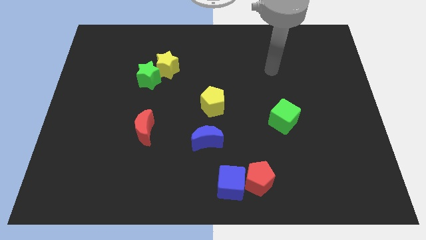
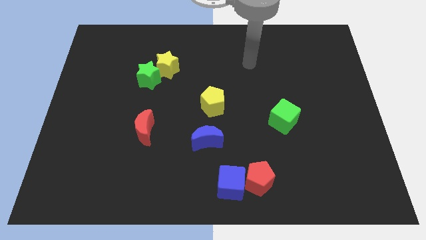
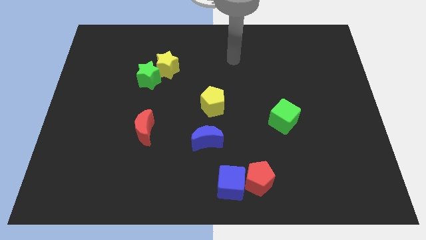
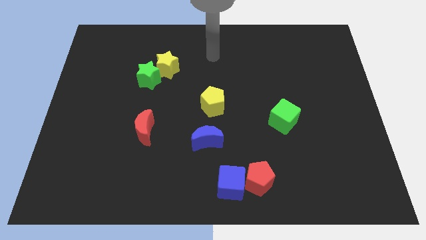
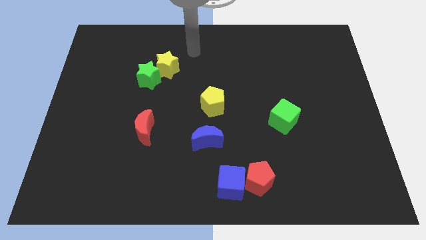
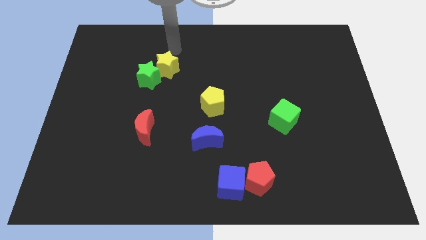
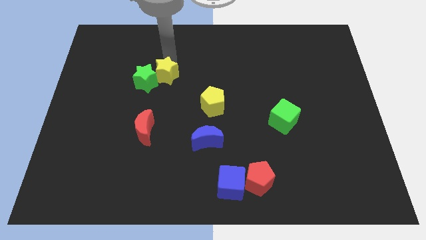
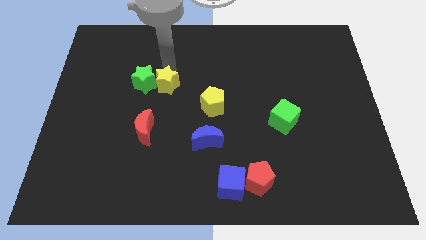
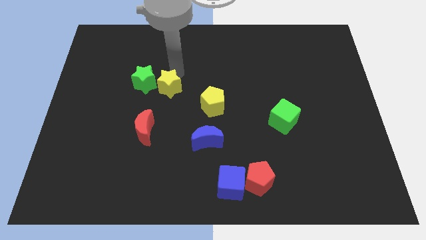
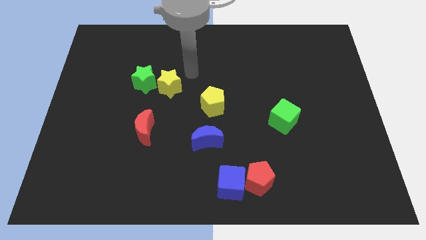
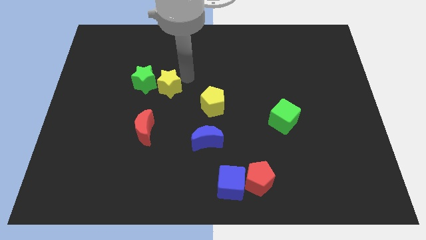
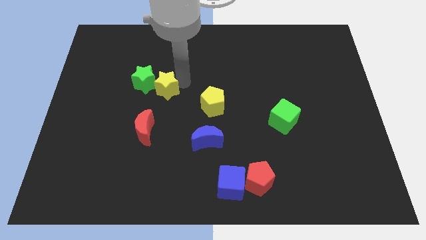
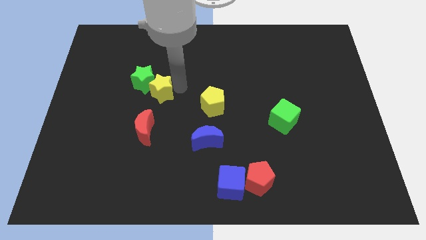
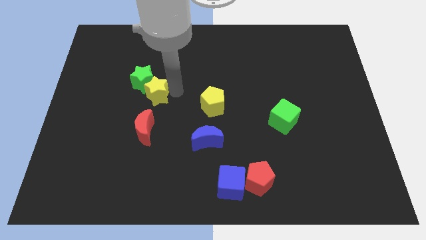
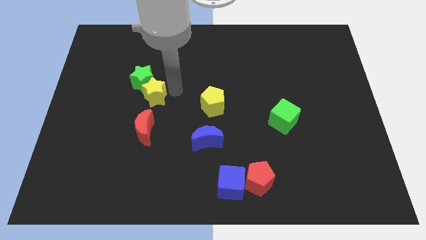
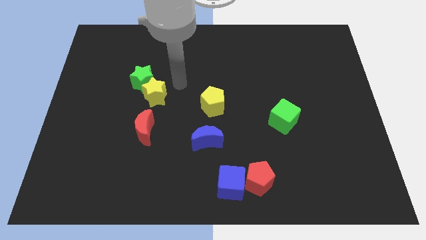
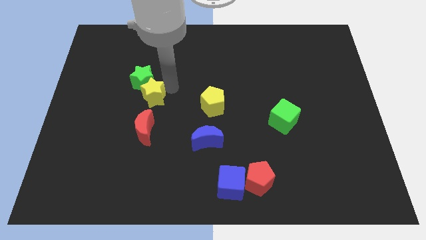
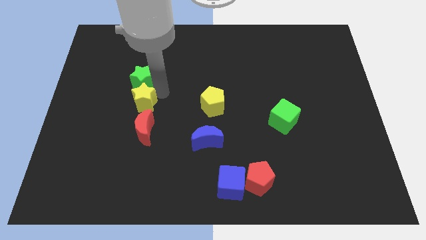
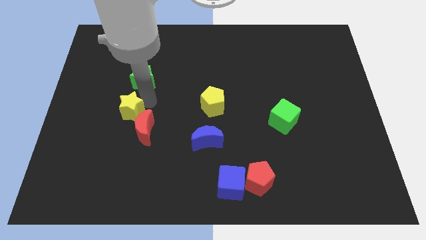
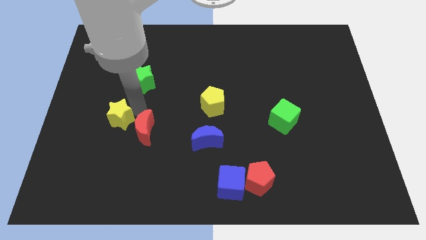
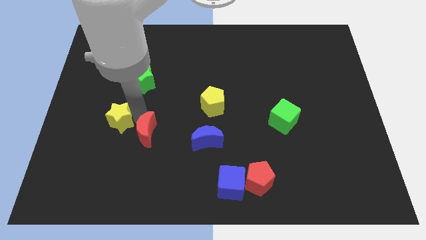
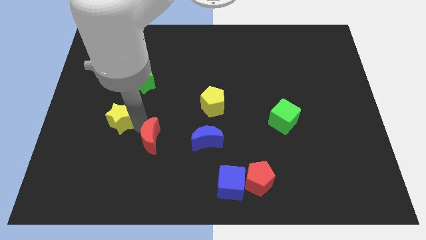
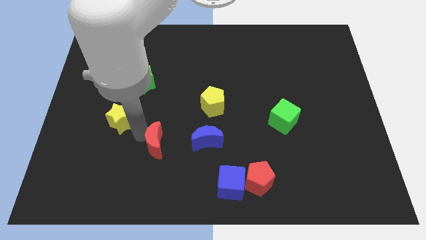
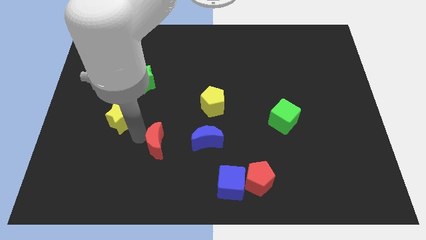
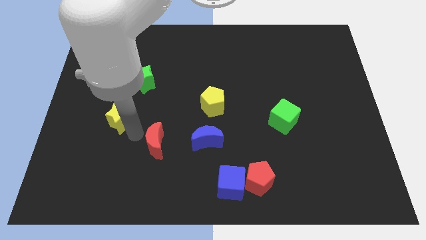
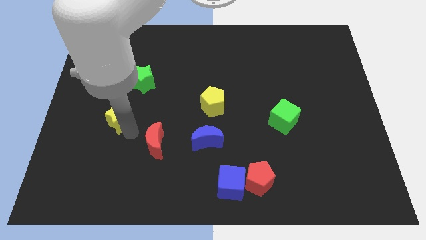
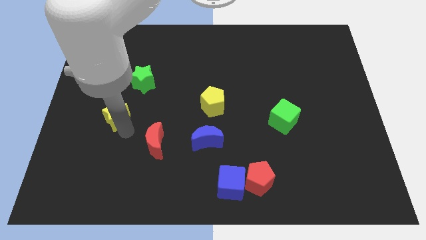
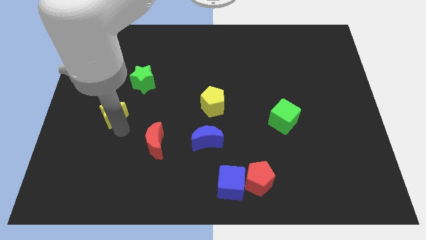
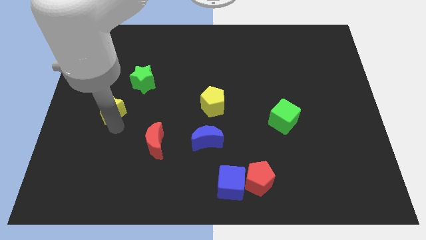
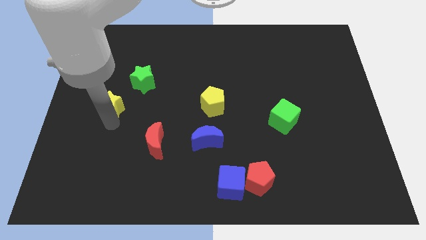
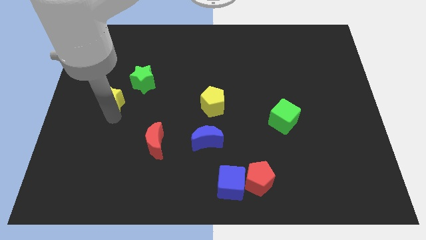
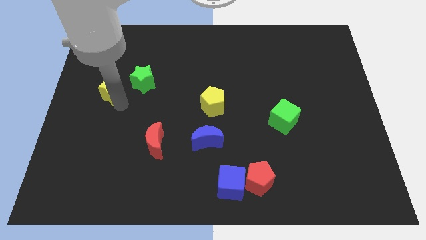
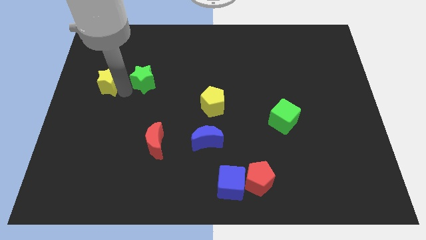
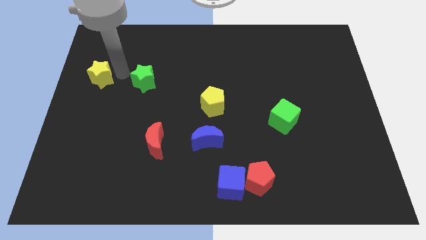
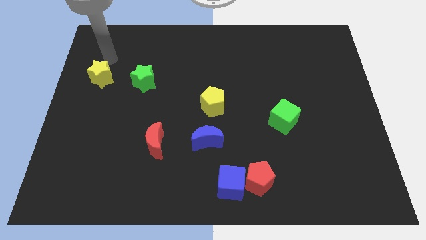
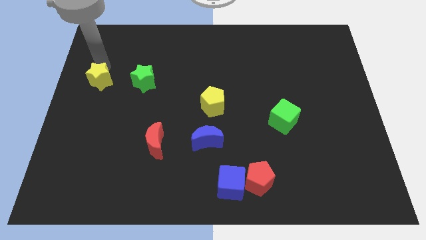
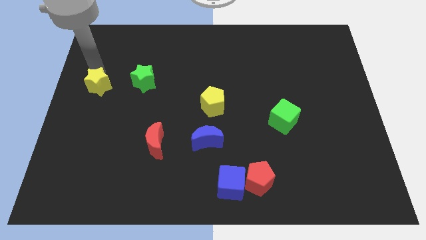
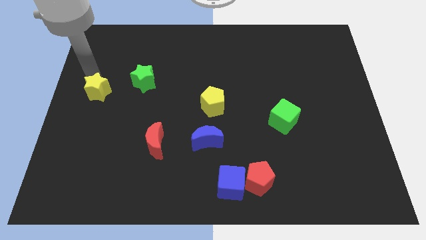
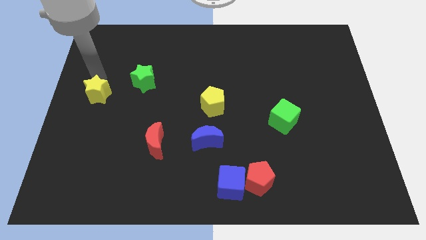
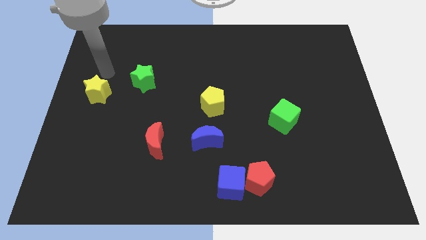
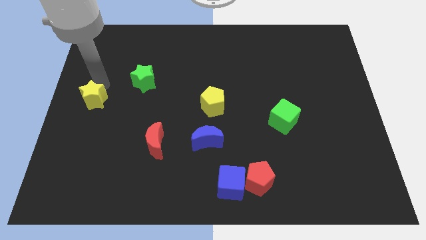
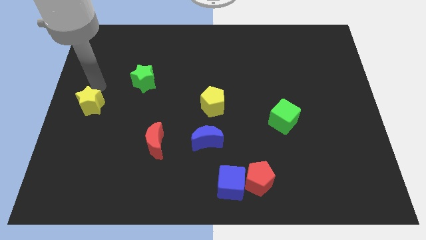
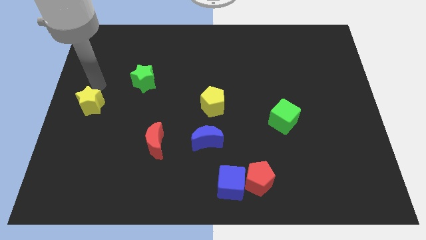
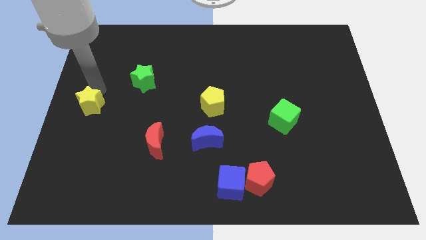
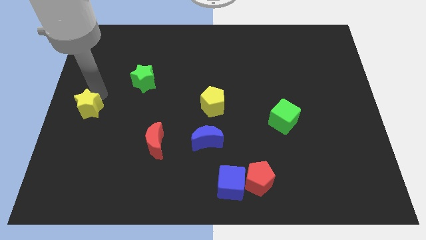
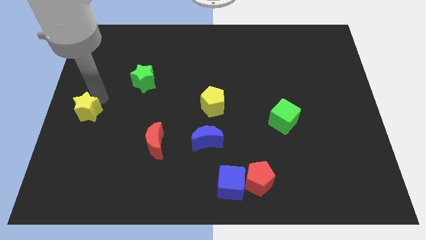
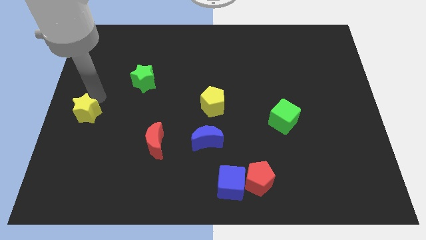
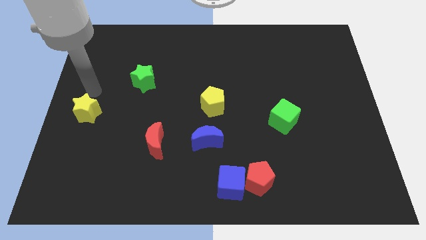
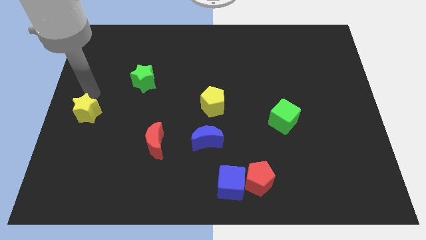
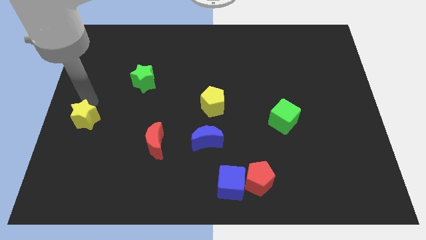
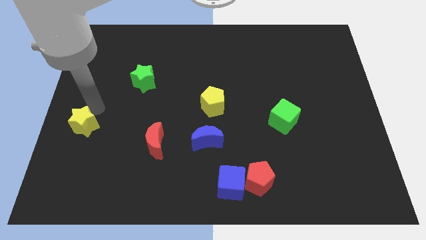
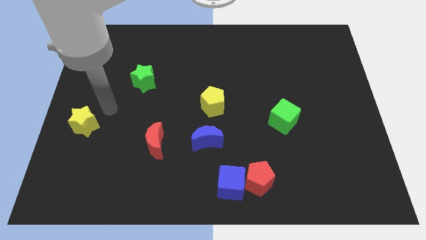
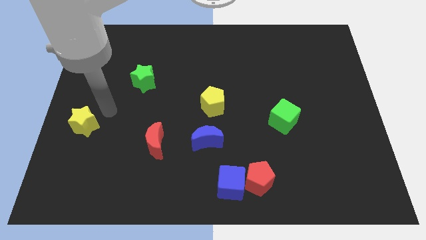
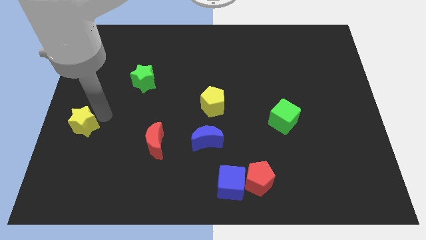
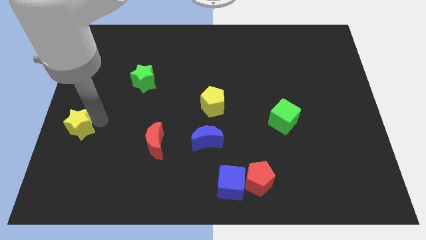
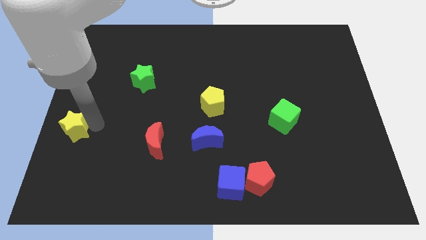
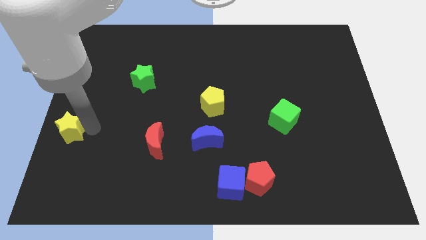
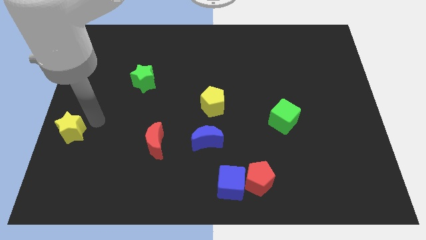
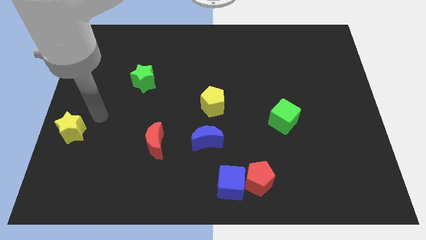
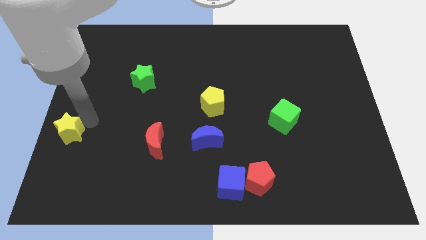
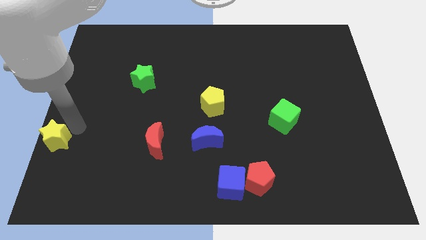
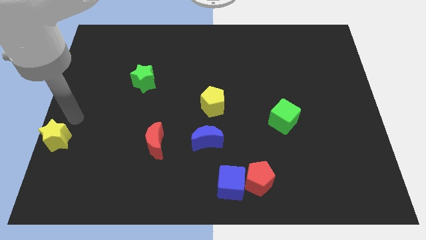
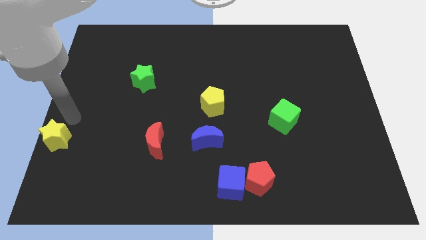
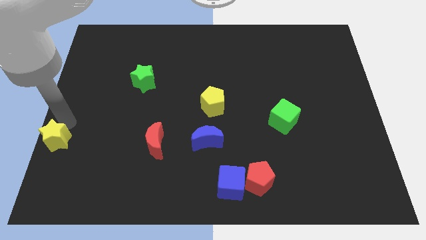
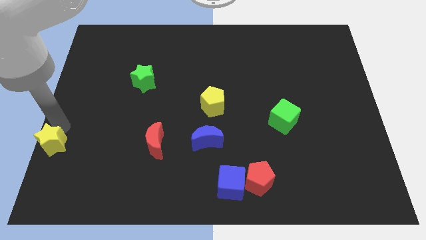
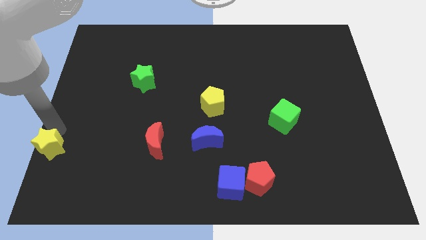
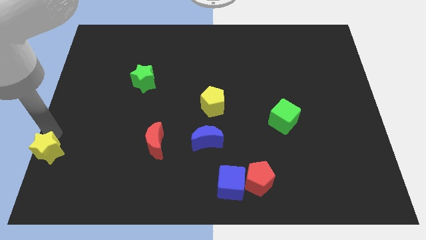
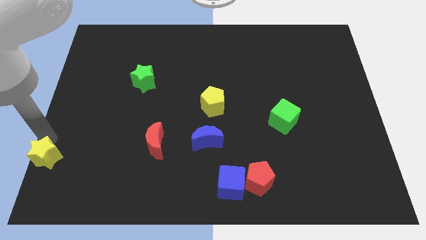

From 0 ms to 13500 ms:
push the yellow star to the lower left corner
